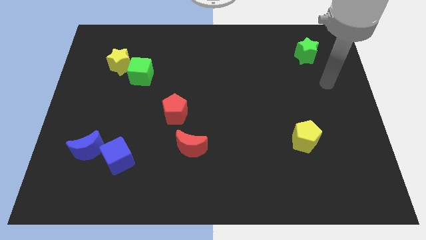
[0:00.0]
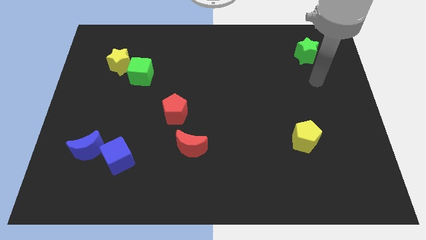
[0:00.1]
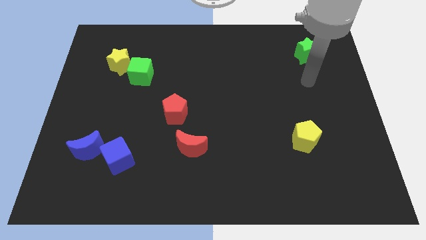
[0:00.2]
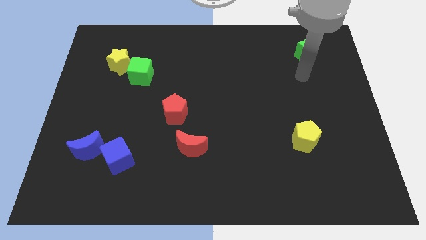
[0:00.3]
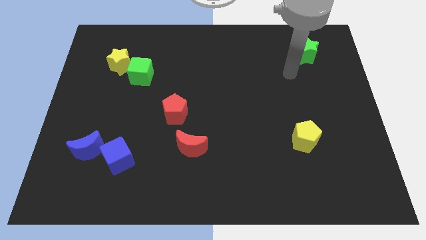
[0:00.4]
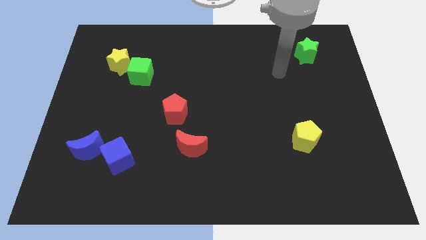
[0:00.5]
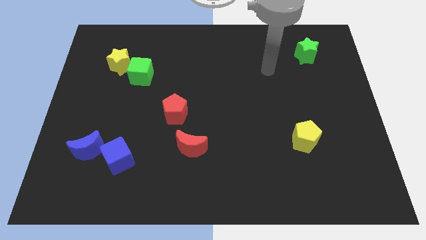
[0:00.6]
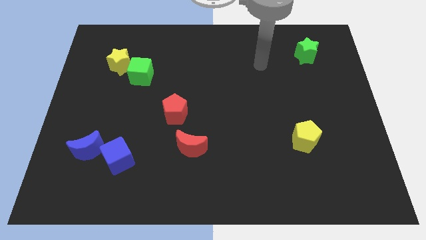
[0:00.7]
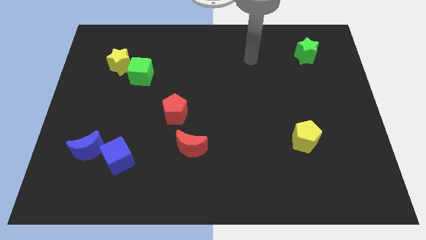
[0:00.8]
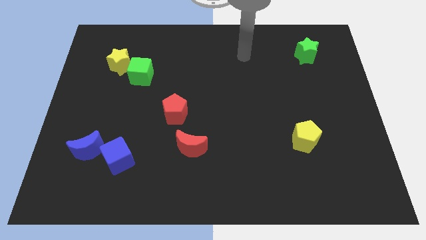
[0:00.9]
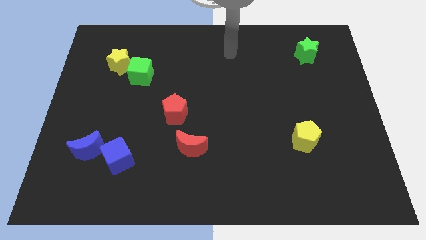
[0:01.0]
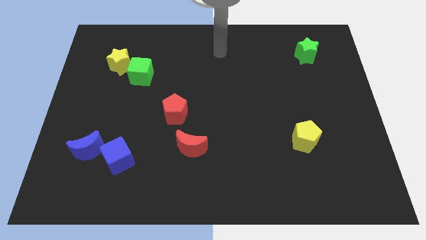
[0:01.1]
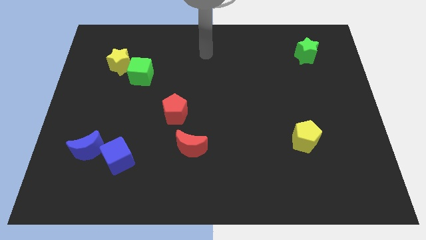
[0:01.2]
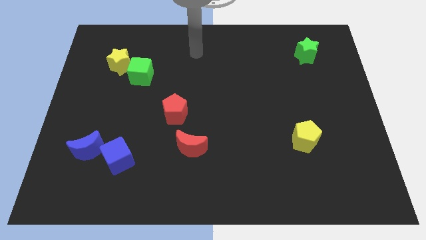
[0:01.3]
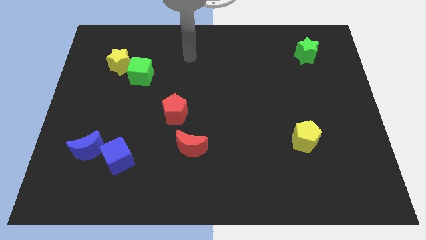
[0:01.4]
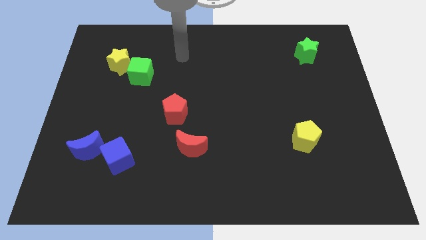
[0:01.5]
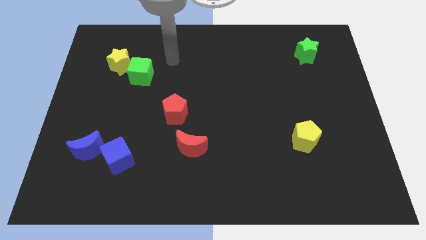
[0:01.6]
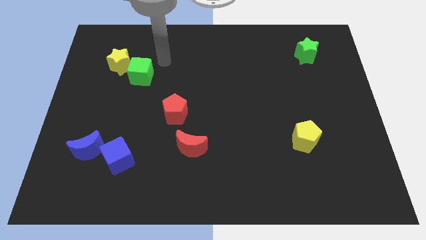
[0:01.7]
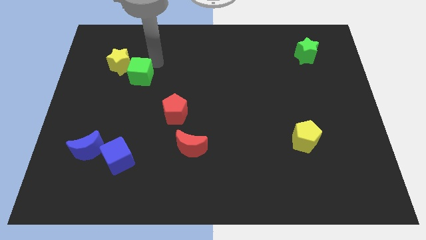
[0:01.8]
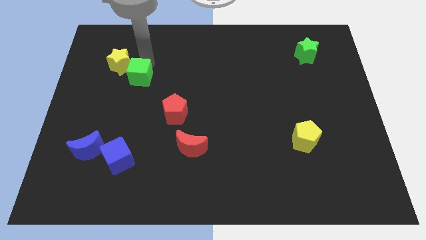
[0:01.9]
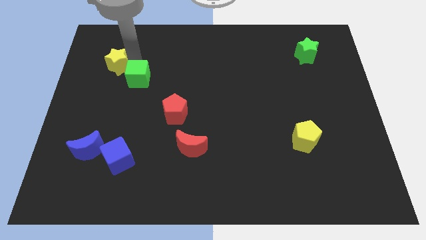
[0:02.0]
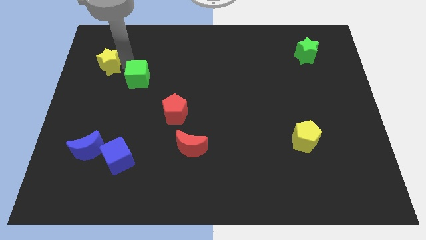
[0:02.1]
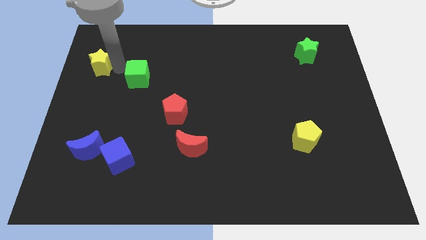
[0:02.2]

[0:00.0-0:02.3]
separate the green cube from the yellow star

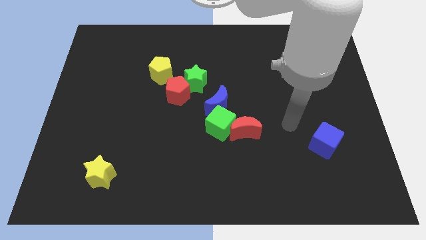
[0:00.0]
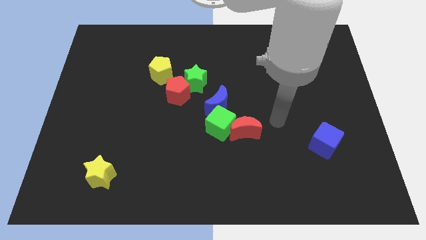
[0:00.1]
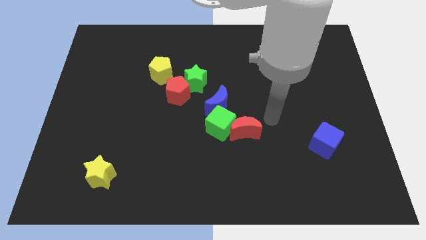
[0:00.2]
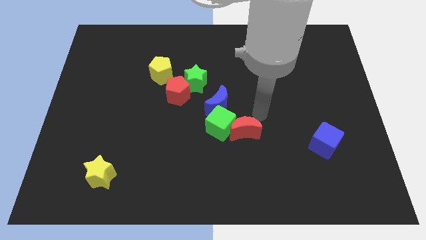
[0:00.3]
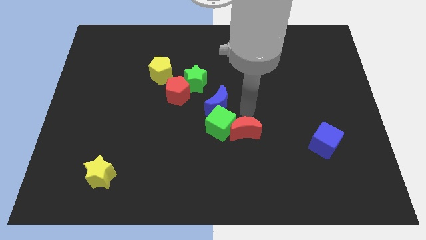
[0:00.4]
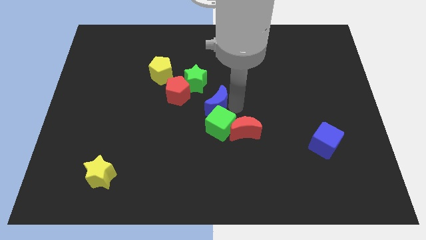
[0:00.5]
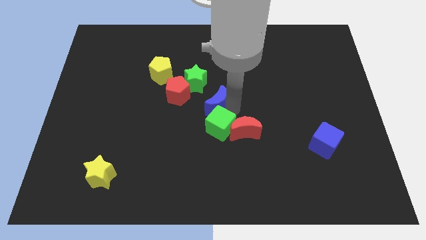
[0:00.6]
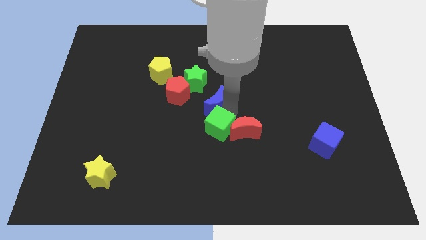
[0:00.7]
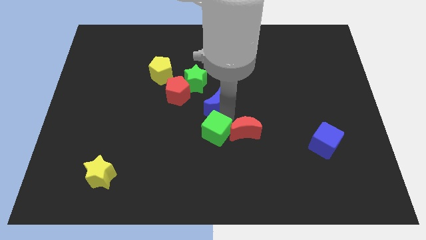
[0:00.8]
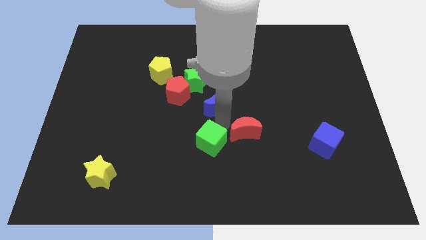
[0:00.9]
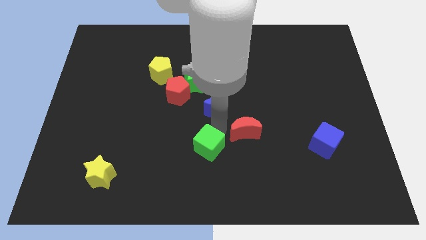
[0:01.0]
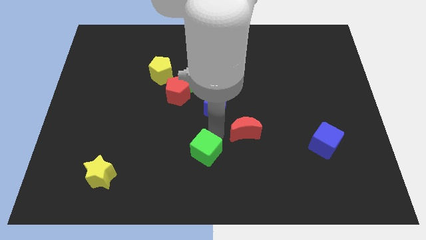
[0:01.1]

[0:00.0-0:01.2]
pull the green cube apart from the red moon and blue moon

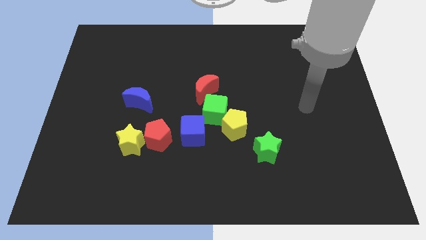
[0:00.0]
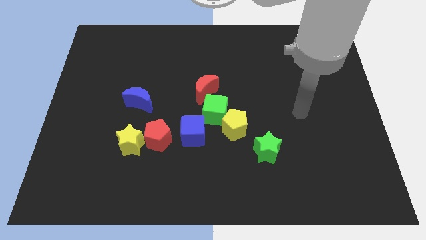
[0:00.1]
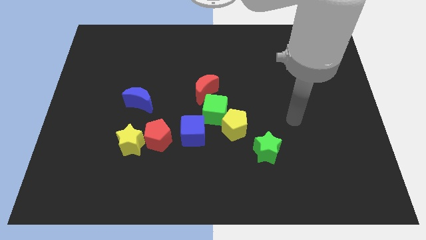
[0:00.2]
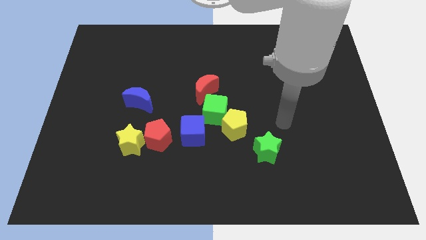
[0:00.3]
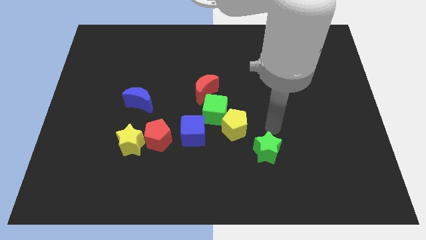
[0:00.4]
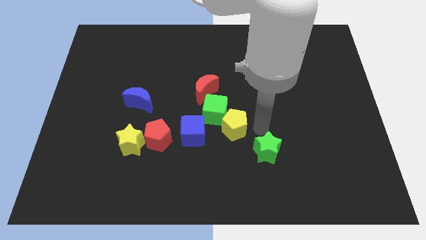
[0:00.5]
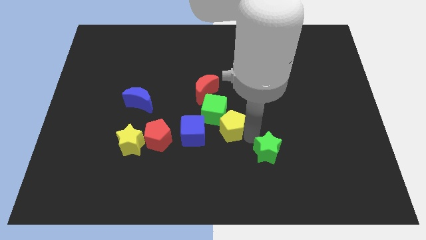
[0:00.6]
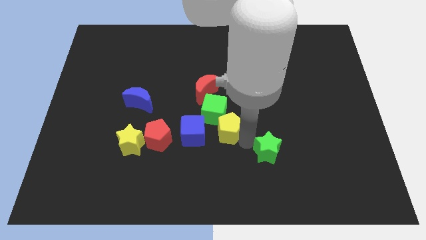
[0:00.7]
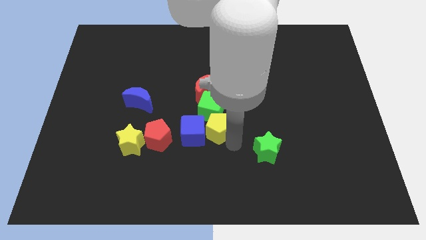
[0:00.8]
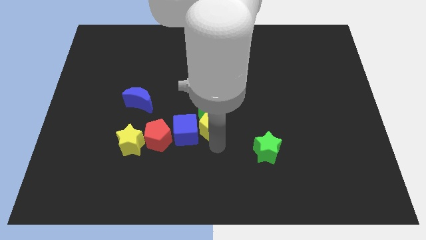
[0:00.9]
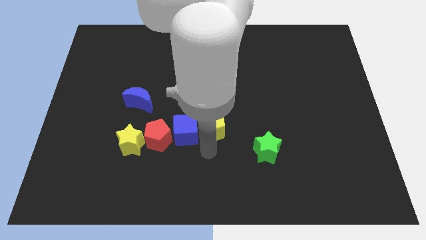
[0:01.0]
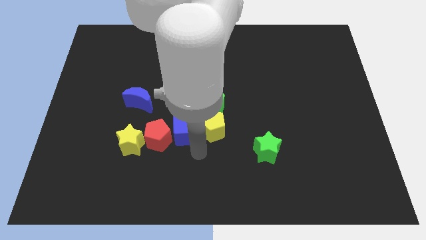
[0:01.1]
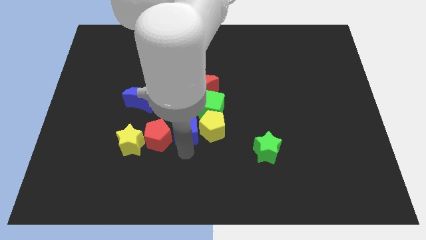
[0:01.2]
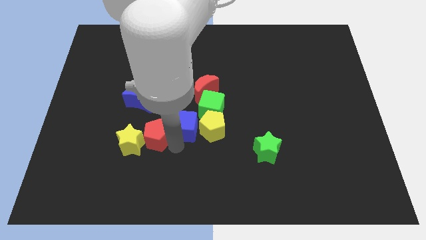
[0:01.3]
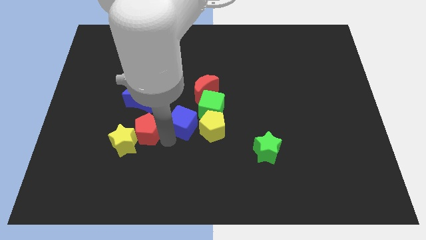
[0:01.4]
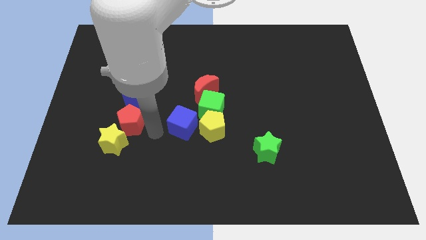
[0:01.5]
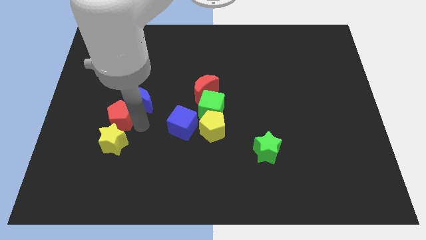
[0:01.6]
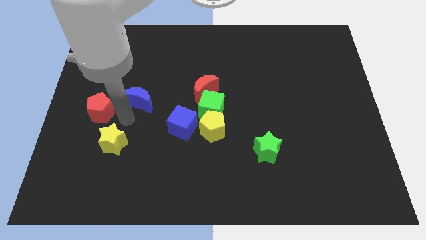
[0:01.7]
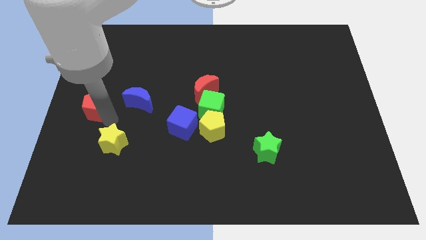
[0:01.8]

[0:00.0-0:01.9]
separate the yellow star from the red pentagon

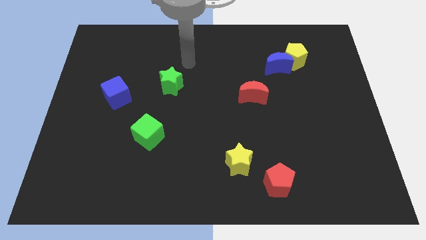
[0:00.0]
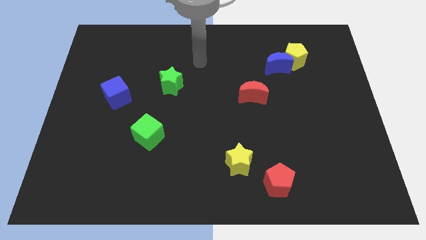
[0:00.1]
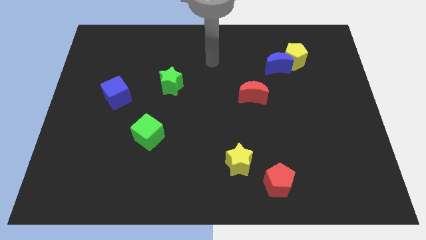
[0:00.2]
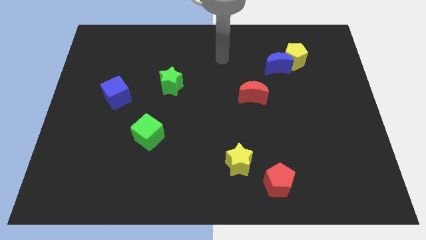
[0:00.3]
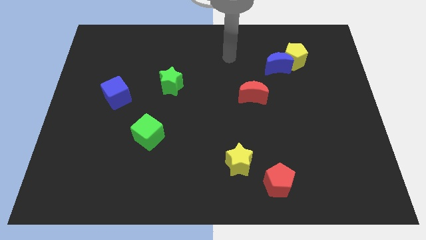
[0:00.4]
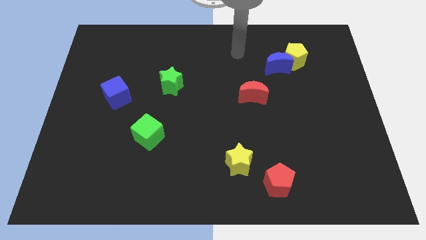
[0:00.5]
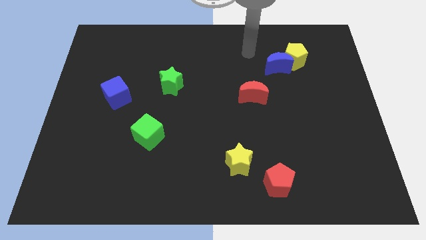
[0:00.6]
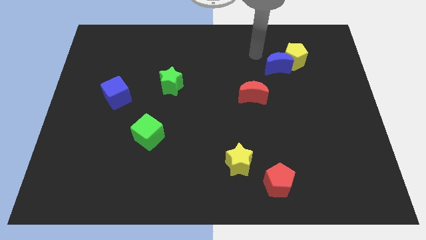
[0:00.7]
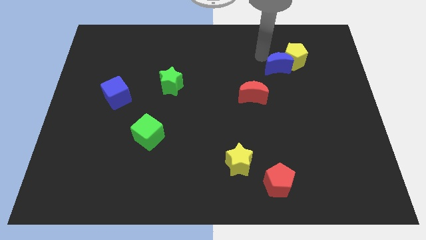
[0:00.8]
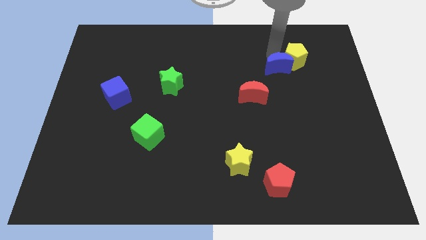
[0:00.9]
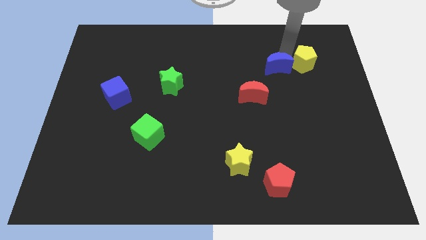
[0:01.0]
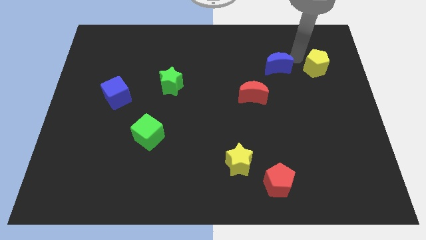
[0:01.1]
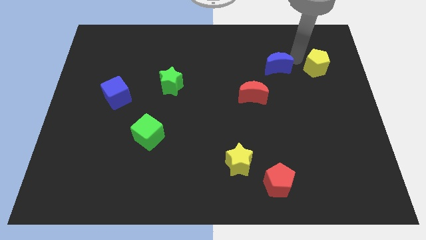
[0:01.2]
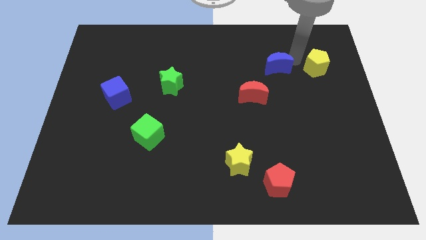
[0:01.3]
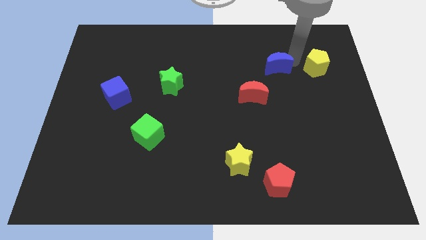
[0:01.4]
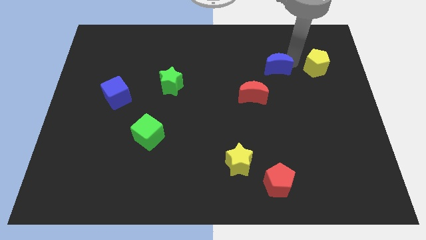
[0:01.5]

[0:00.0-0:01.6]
pull the blue moon apart from the yellow pentagon

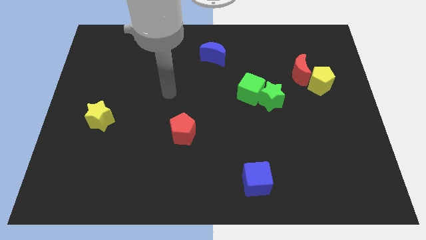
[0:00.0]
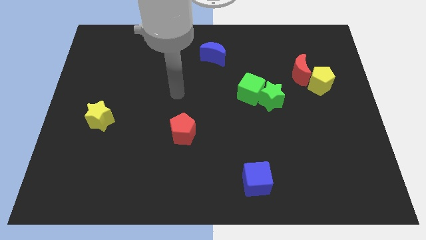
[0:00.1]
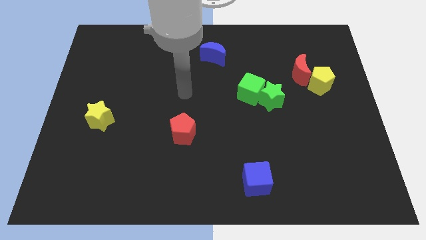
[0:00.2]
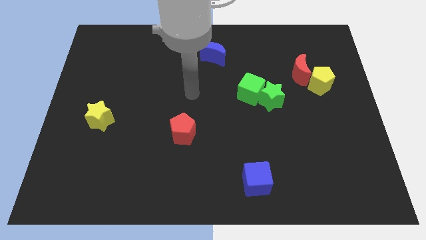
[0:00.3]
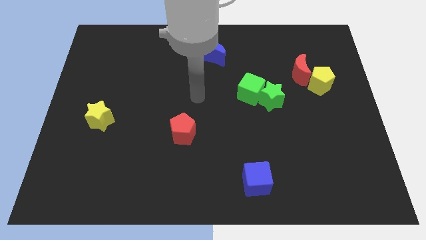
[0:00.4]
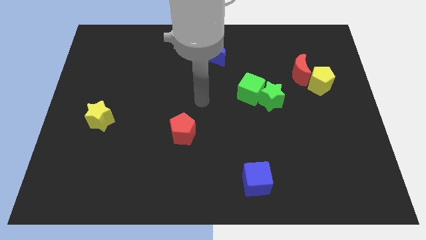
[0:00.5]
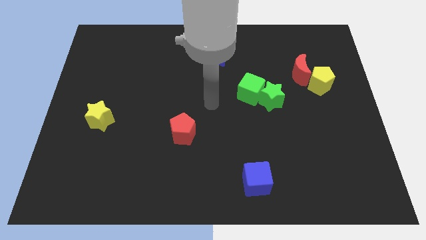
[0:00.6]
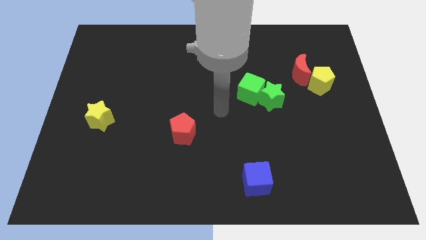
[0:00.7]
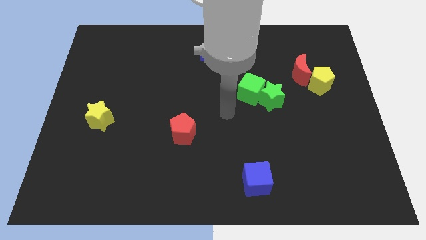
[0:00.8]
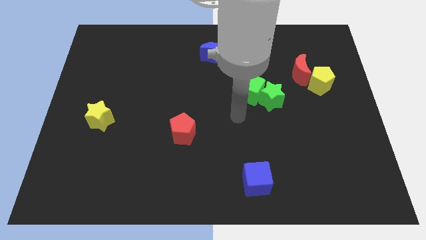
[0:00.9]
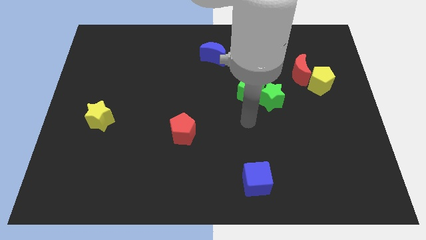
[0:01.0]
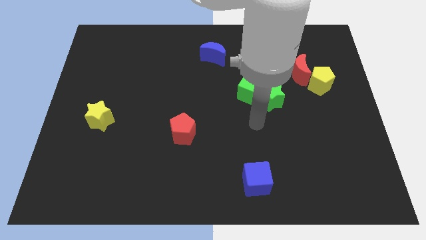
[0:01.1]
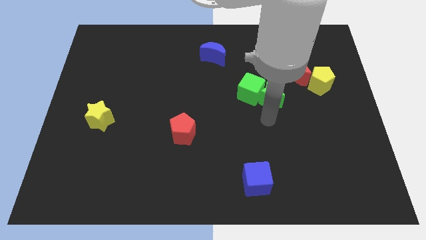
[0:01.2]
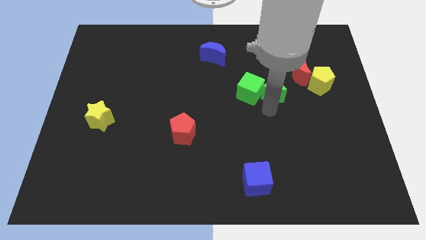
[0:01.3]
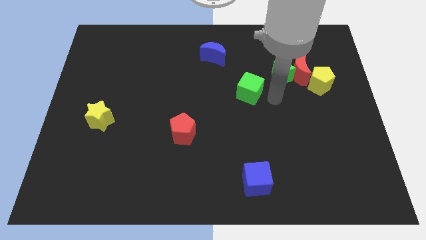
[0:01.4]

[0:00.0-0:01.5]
pull the green cube apart from the green star

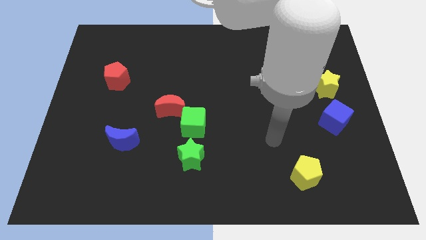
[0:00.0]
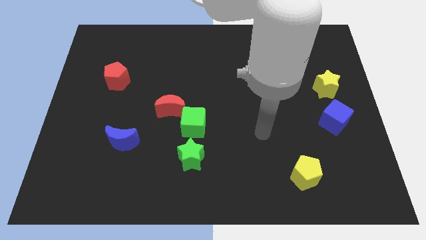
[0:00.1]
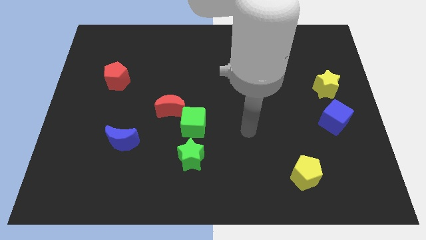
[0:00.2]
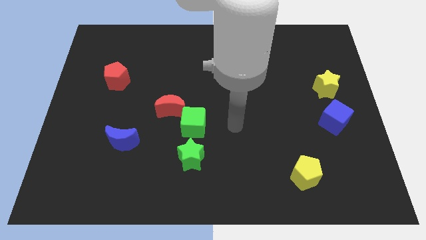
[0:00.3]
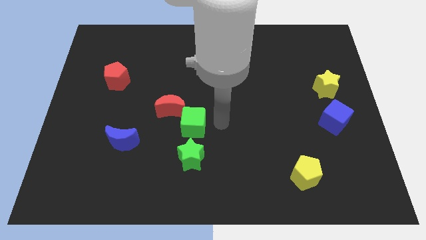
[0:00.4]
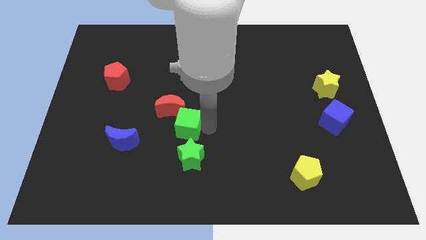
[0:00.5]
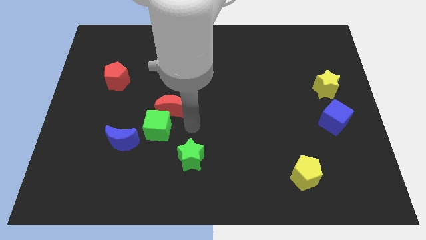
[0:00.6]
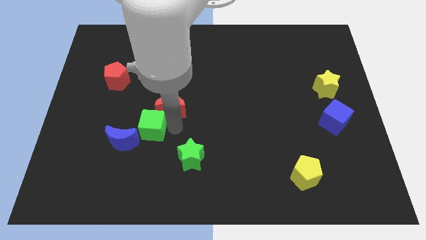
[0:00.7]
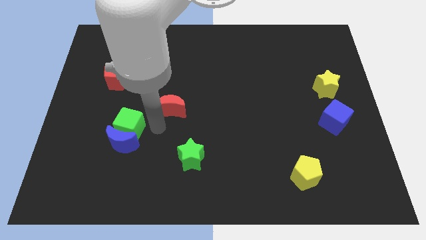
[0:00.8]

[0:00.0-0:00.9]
separate the red moon from the green cube
